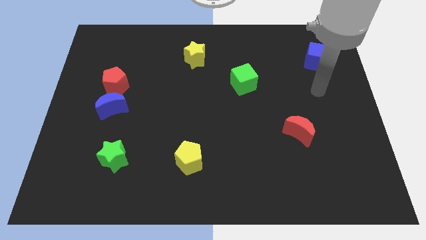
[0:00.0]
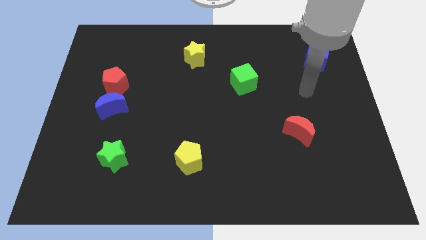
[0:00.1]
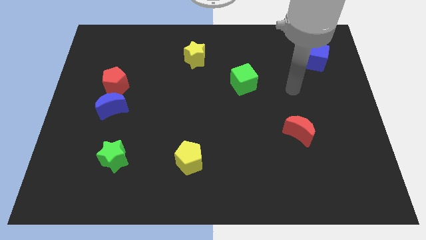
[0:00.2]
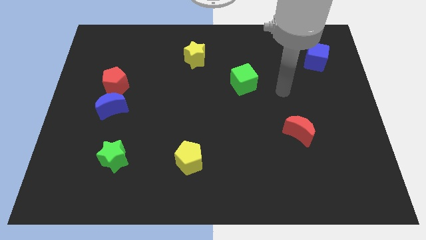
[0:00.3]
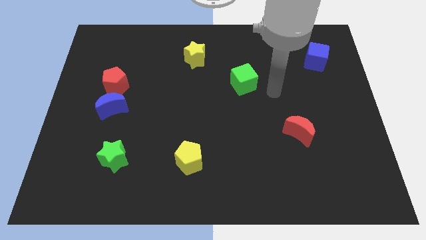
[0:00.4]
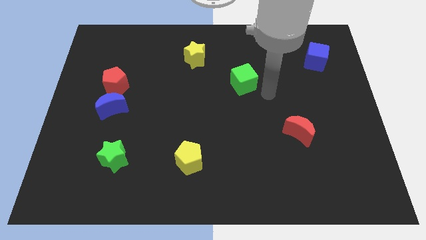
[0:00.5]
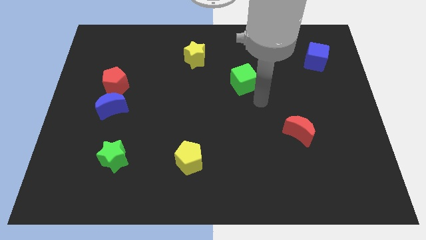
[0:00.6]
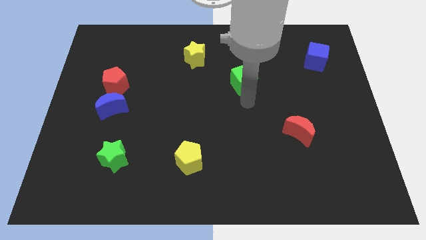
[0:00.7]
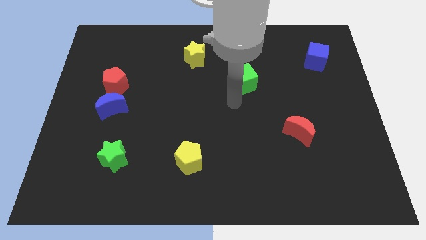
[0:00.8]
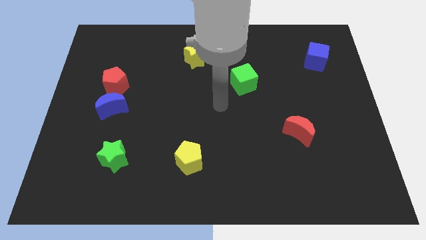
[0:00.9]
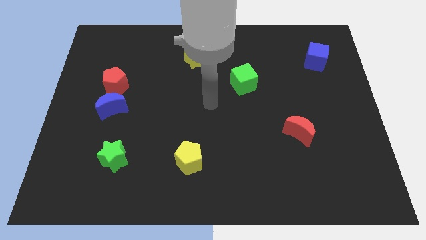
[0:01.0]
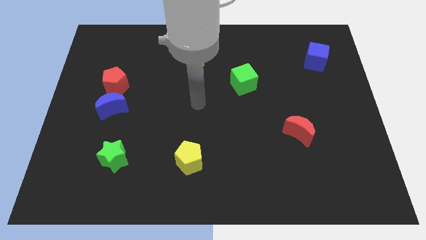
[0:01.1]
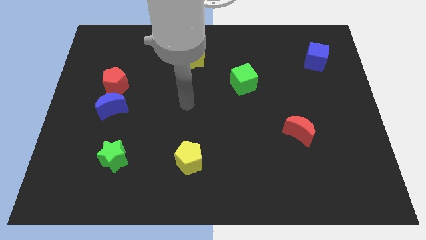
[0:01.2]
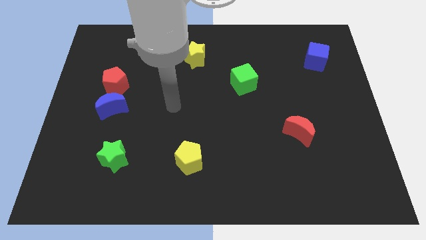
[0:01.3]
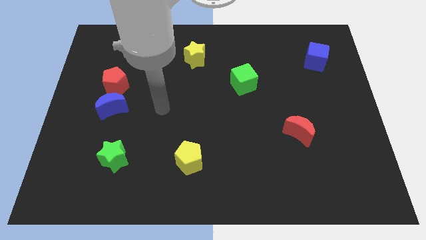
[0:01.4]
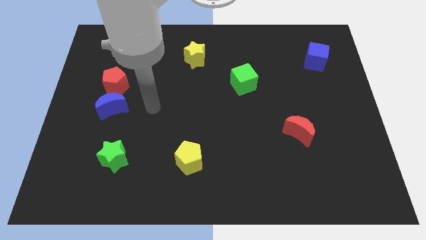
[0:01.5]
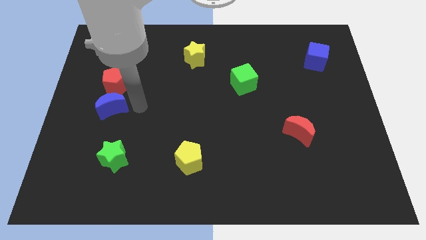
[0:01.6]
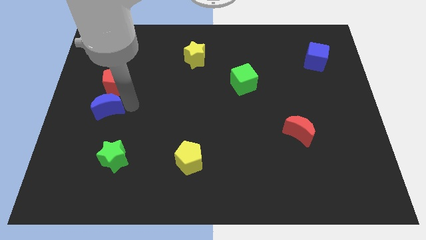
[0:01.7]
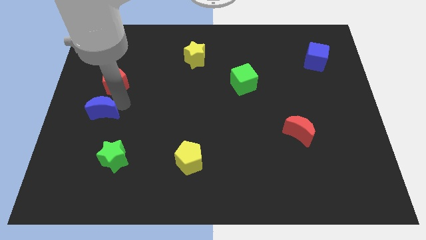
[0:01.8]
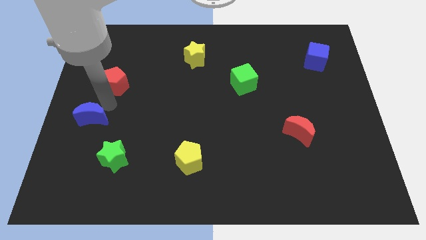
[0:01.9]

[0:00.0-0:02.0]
move the red pentagon away from the blue moon

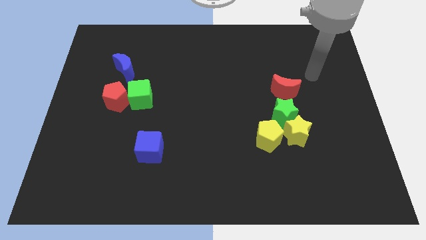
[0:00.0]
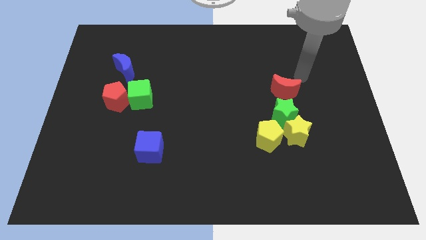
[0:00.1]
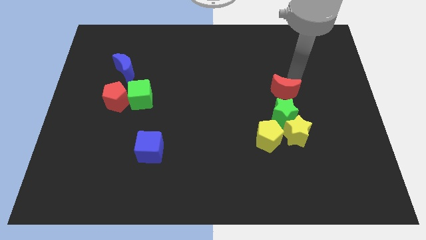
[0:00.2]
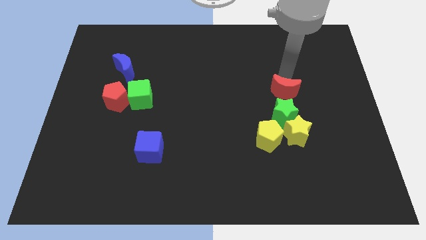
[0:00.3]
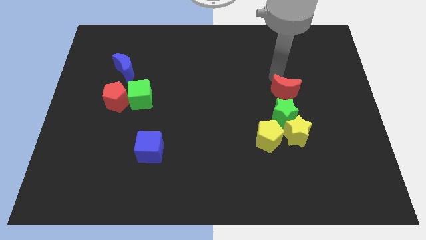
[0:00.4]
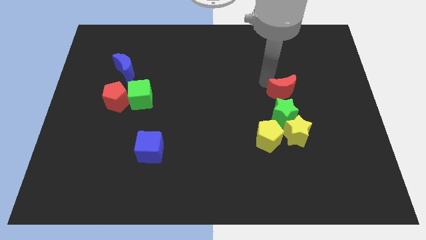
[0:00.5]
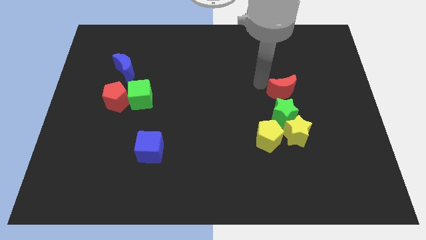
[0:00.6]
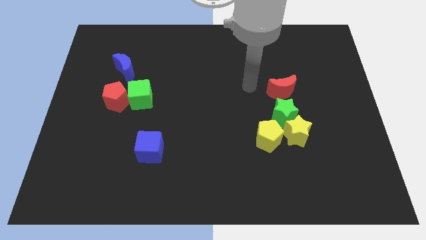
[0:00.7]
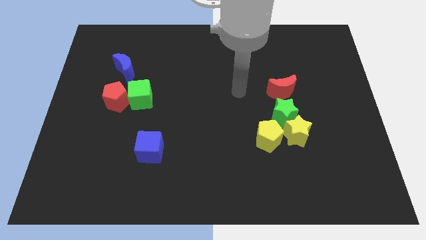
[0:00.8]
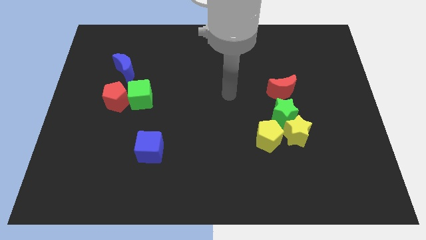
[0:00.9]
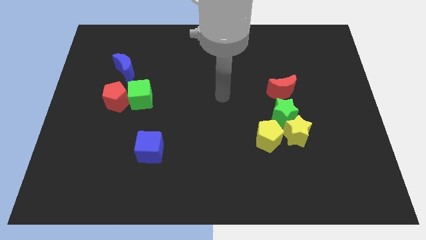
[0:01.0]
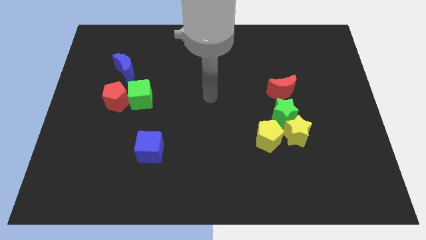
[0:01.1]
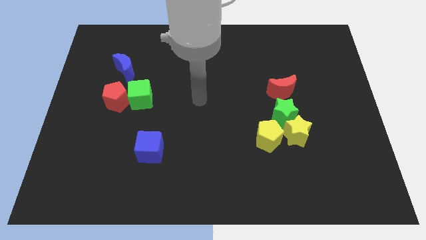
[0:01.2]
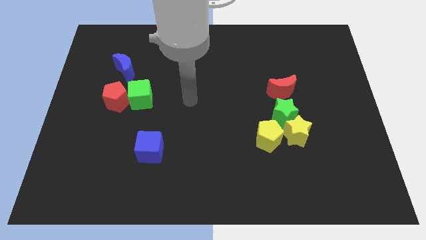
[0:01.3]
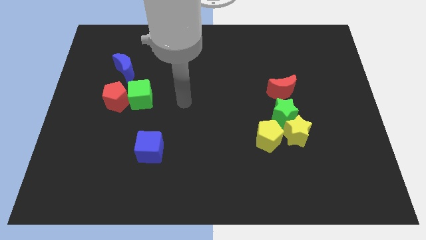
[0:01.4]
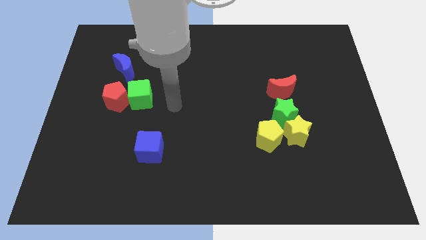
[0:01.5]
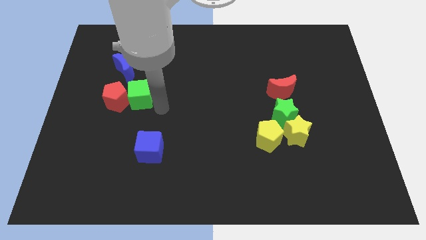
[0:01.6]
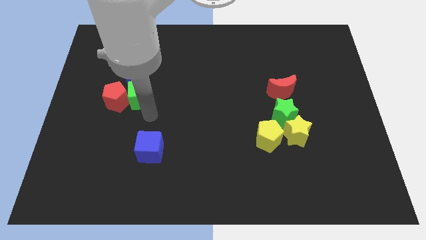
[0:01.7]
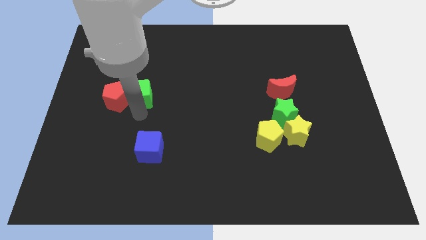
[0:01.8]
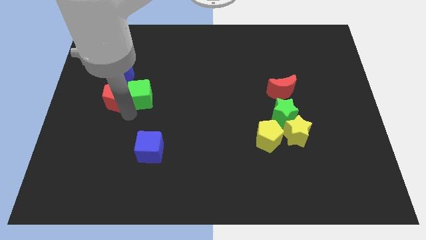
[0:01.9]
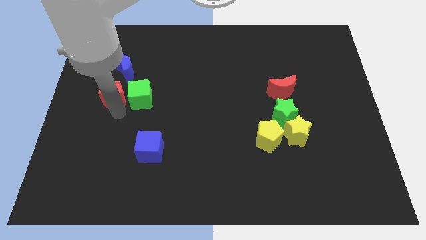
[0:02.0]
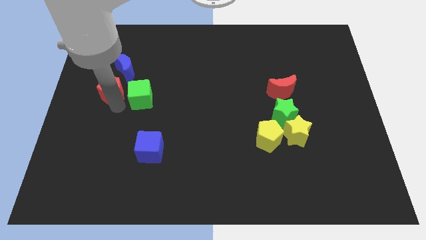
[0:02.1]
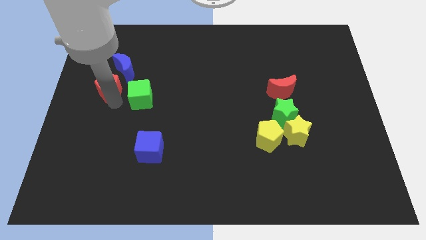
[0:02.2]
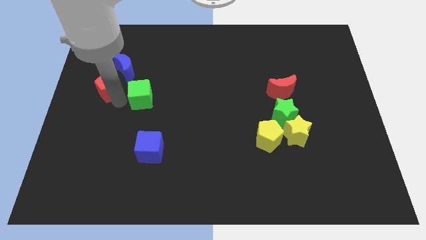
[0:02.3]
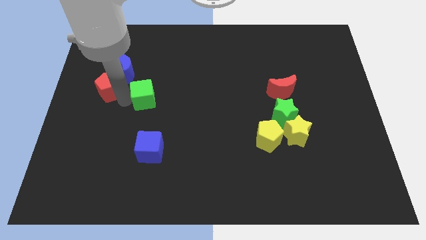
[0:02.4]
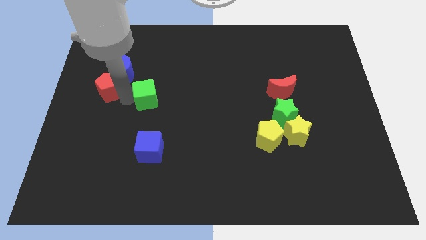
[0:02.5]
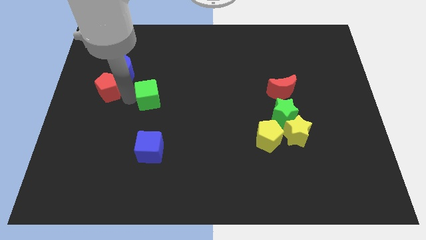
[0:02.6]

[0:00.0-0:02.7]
separate the green cube from the red pentagon

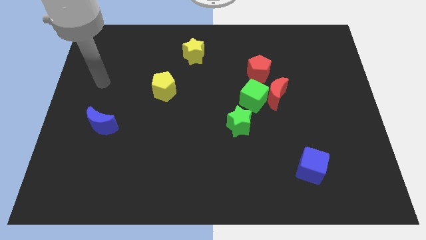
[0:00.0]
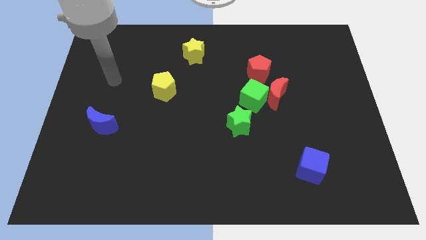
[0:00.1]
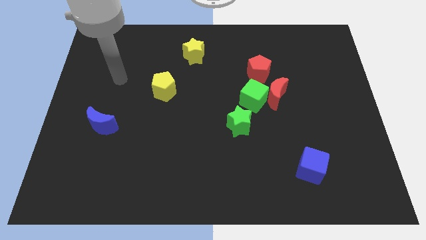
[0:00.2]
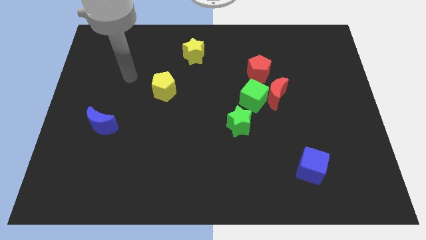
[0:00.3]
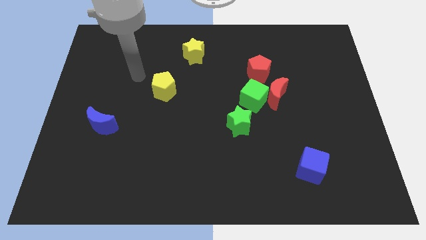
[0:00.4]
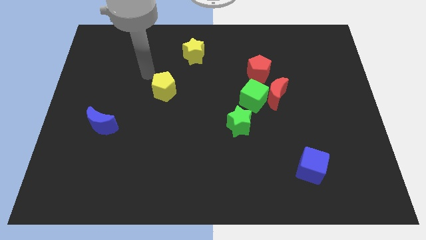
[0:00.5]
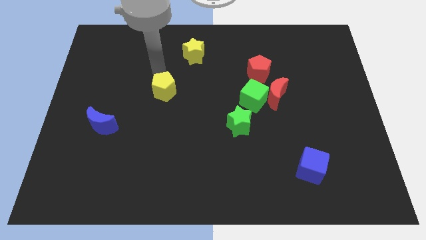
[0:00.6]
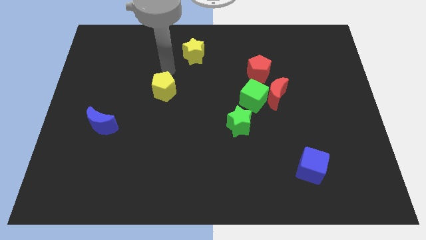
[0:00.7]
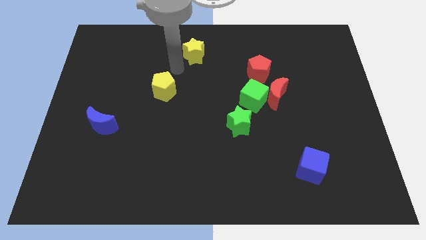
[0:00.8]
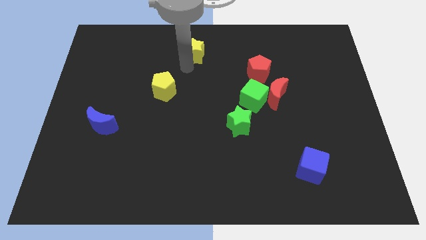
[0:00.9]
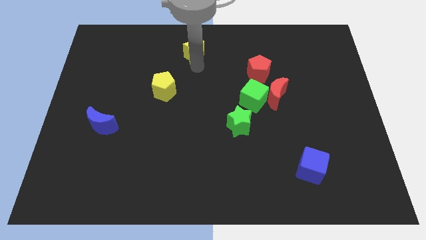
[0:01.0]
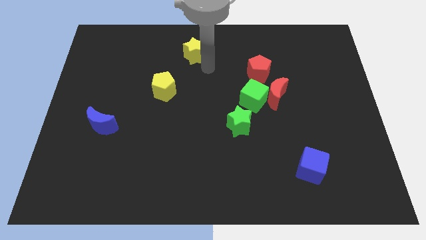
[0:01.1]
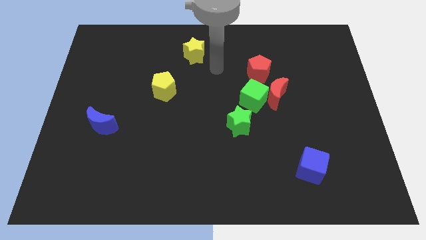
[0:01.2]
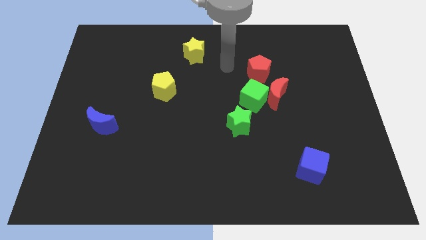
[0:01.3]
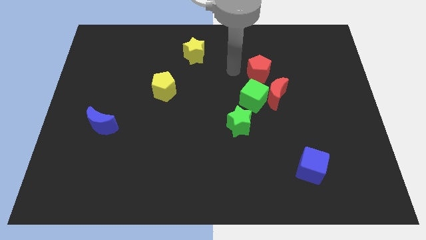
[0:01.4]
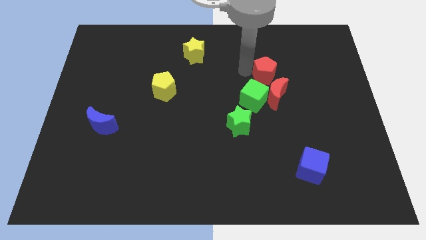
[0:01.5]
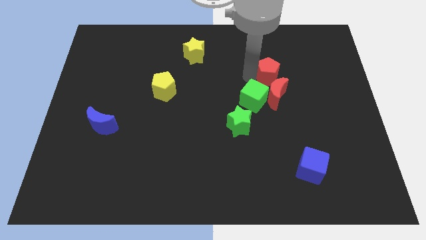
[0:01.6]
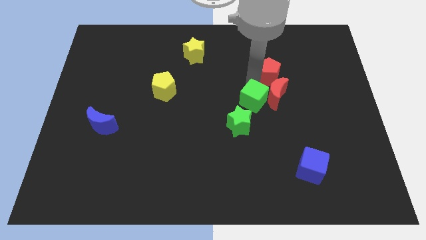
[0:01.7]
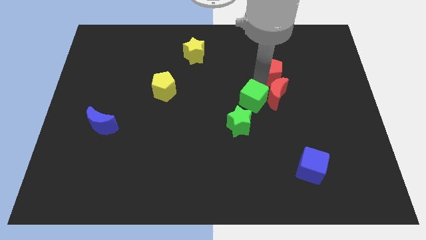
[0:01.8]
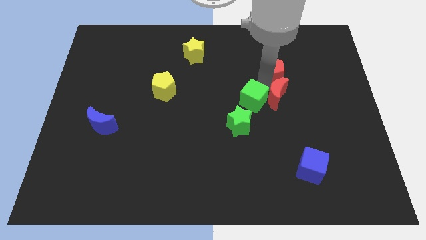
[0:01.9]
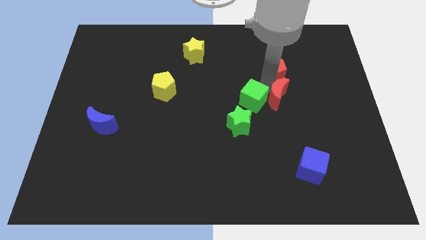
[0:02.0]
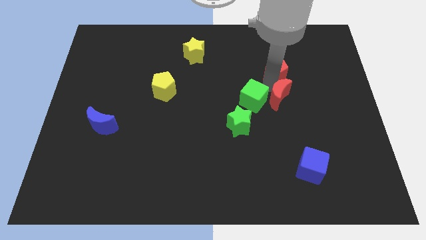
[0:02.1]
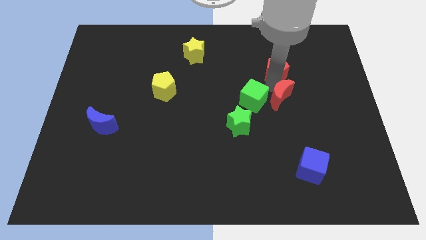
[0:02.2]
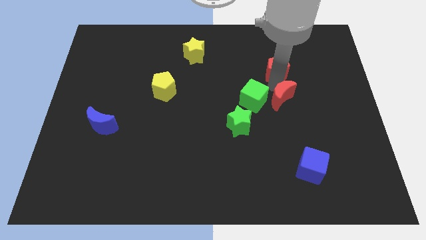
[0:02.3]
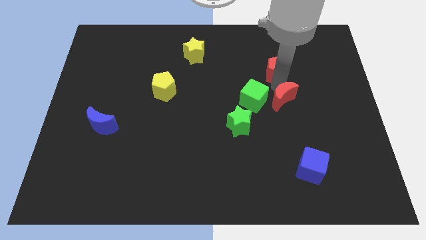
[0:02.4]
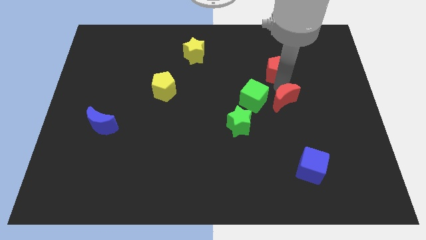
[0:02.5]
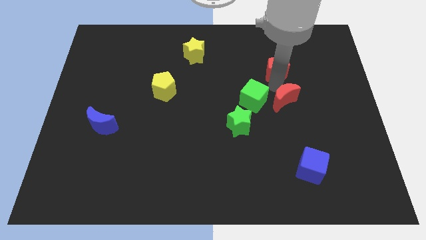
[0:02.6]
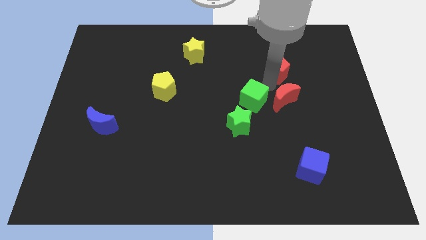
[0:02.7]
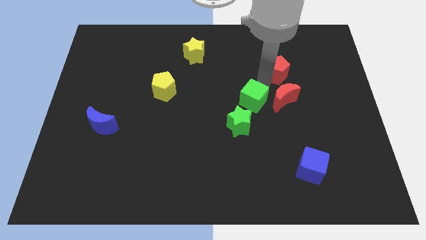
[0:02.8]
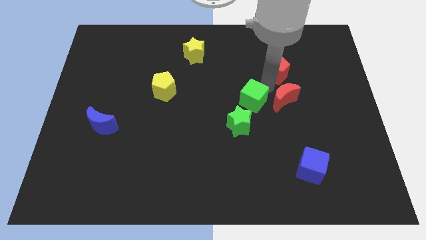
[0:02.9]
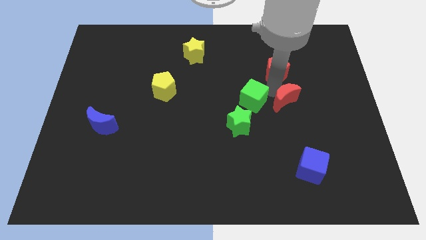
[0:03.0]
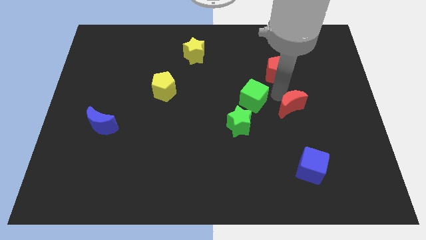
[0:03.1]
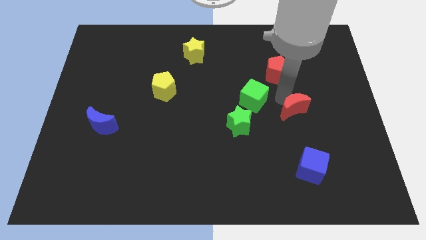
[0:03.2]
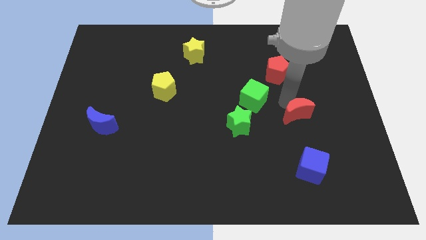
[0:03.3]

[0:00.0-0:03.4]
separate the red moon from the green cube and red pentagon

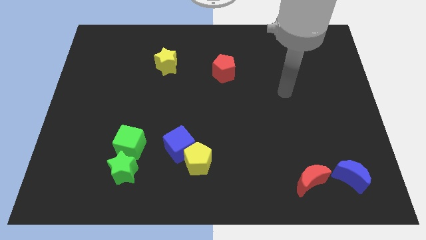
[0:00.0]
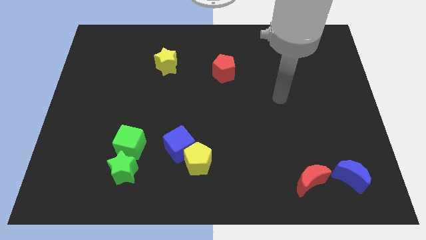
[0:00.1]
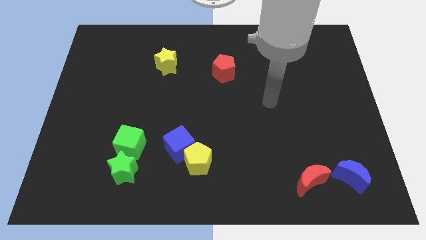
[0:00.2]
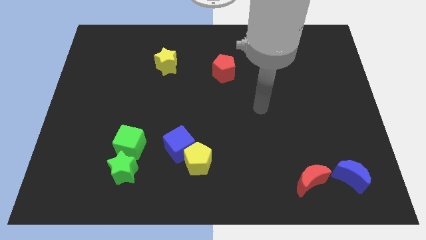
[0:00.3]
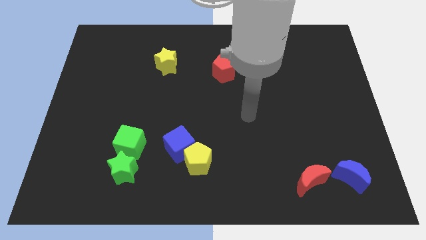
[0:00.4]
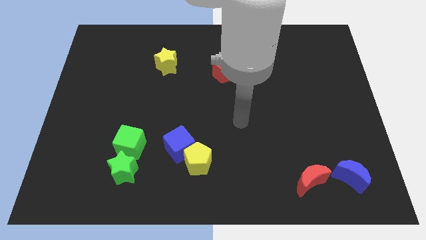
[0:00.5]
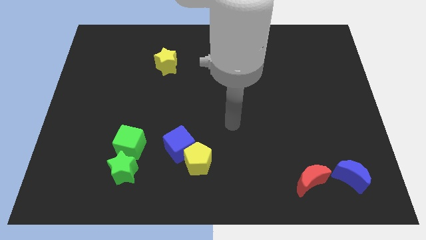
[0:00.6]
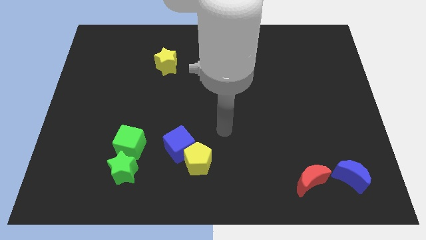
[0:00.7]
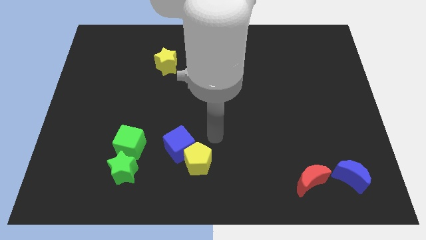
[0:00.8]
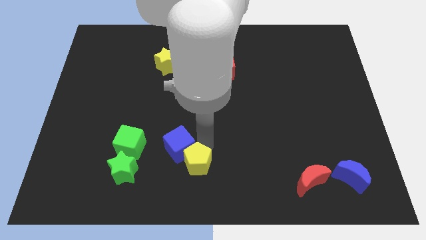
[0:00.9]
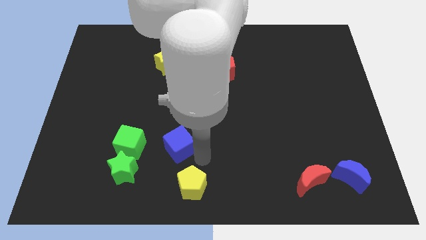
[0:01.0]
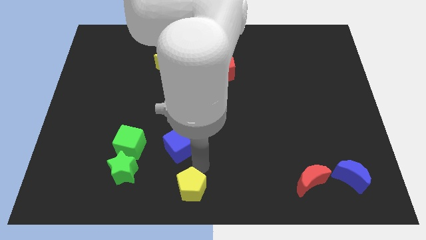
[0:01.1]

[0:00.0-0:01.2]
move the blue cube away from the yellow pentagon

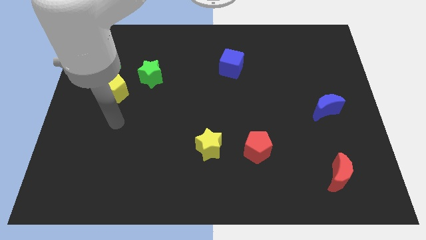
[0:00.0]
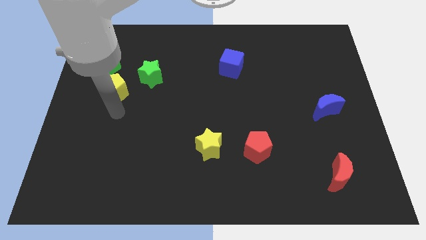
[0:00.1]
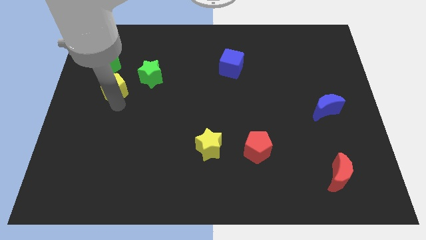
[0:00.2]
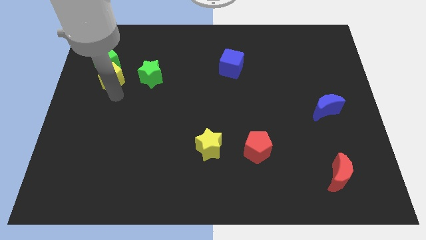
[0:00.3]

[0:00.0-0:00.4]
move the green star away from the yellow pentagon
